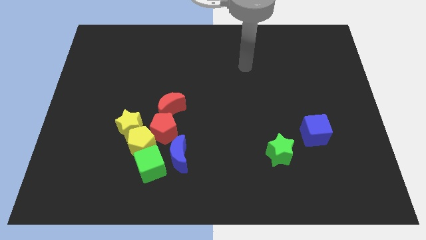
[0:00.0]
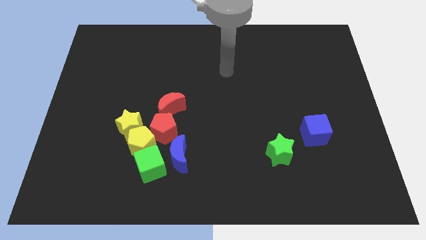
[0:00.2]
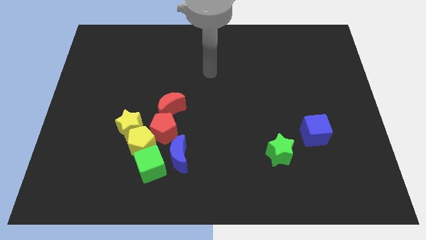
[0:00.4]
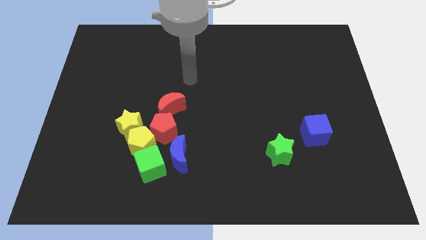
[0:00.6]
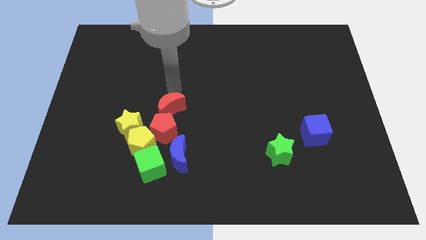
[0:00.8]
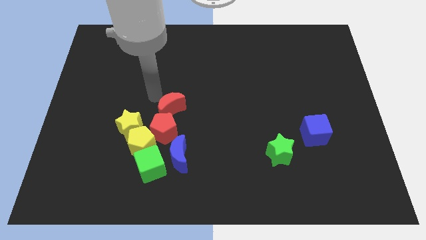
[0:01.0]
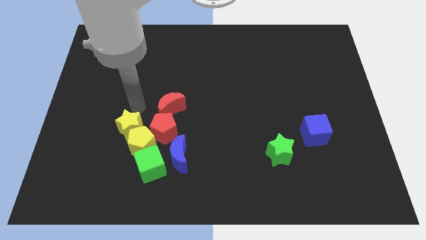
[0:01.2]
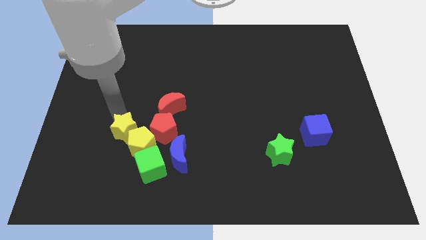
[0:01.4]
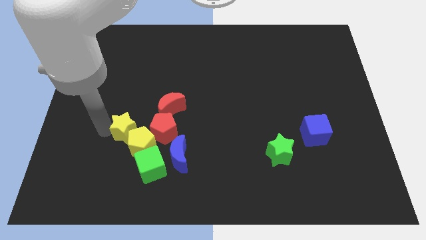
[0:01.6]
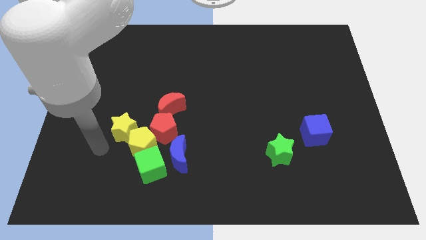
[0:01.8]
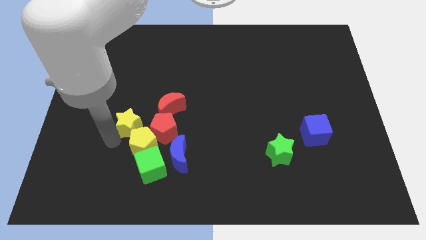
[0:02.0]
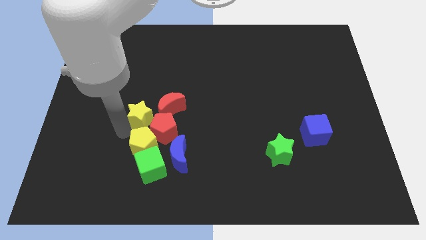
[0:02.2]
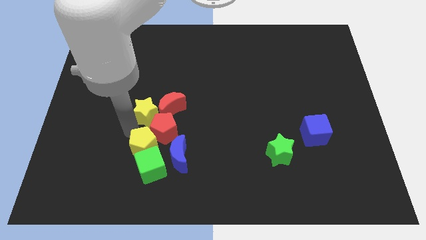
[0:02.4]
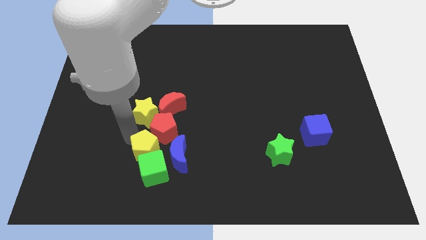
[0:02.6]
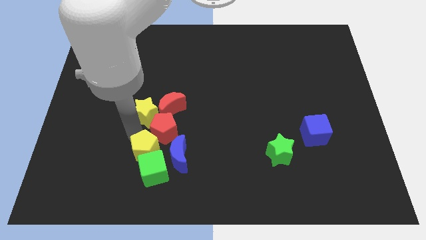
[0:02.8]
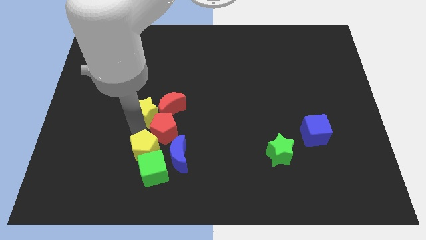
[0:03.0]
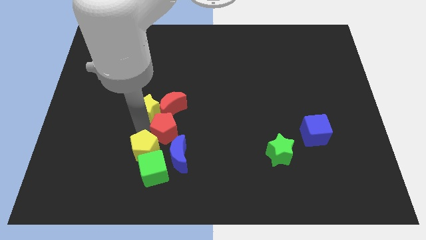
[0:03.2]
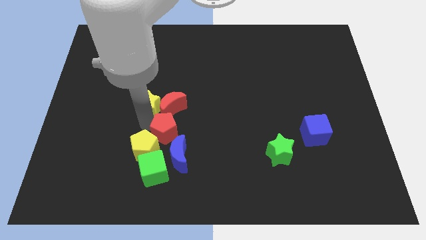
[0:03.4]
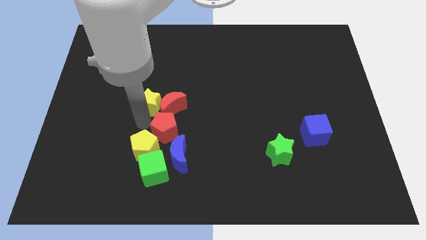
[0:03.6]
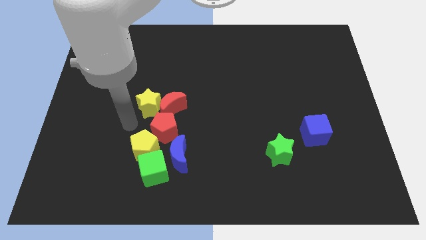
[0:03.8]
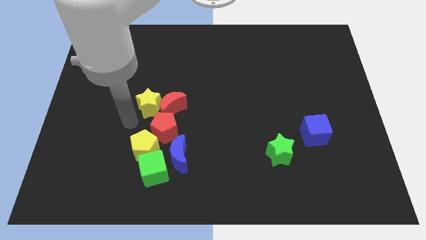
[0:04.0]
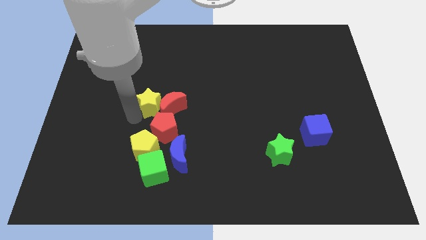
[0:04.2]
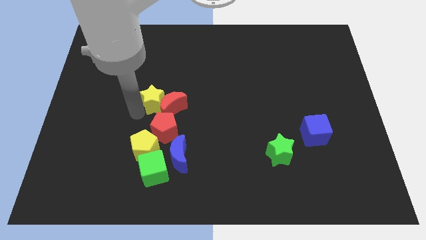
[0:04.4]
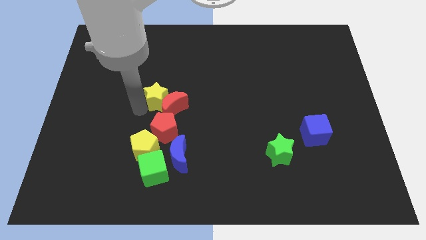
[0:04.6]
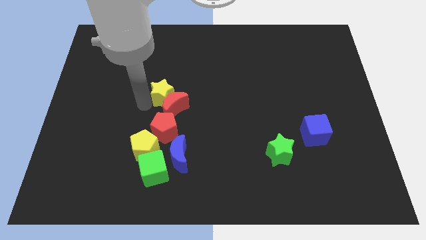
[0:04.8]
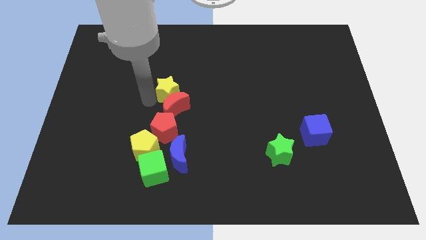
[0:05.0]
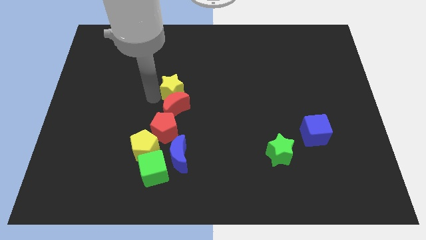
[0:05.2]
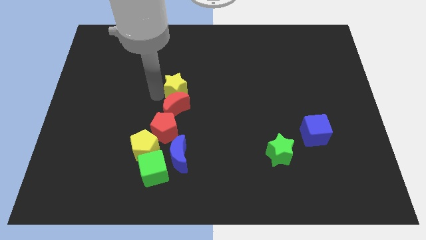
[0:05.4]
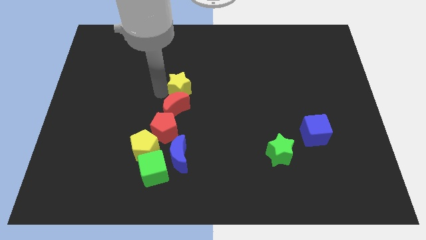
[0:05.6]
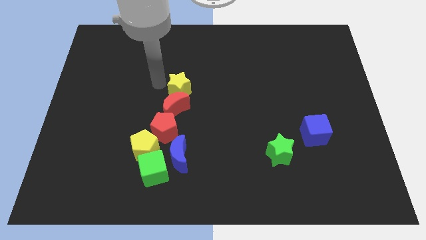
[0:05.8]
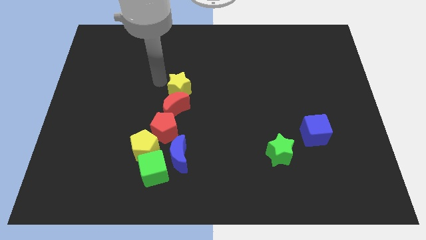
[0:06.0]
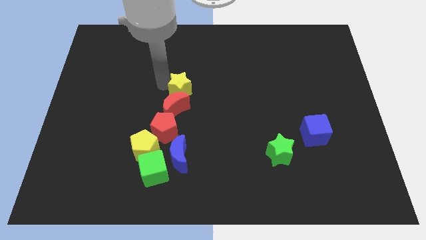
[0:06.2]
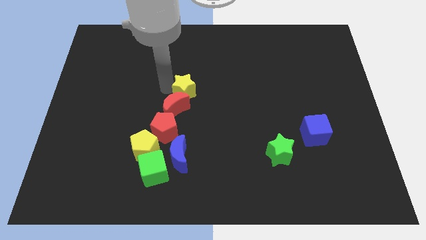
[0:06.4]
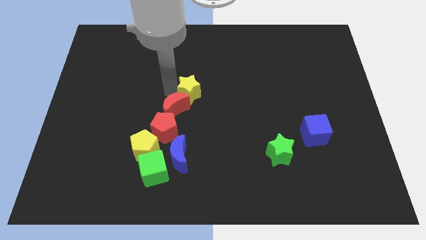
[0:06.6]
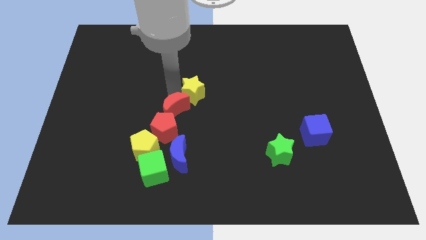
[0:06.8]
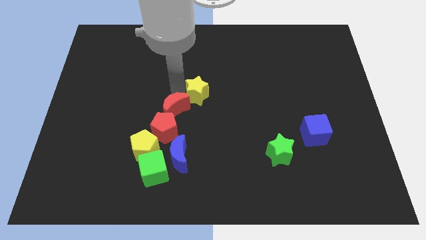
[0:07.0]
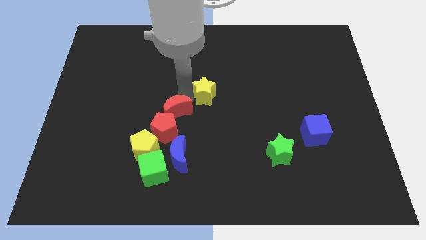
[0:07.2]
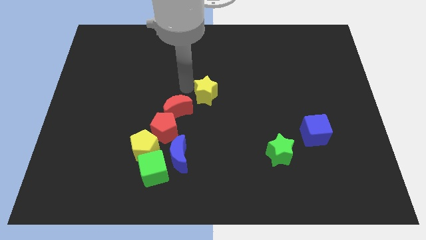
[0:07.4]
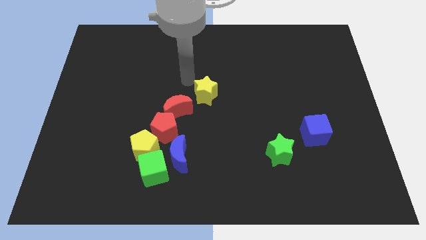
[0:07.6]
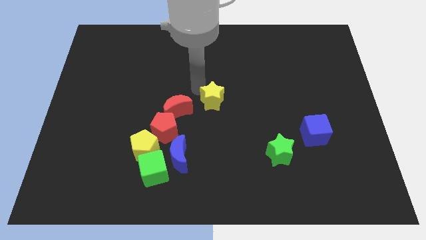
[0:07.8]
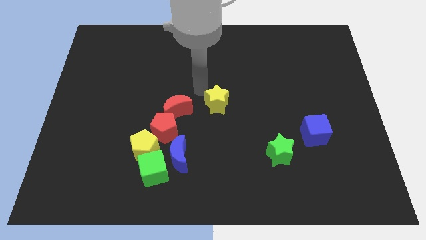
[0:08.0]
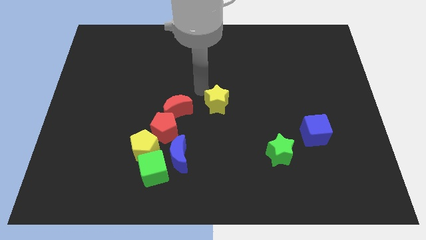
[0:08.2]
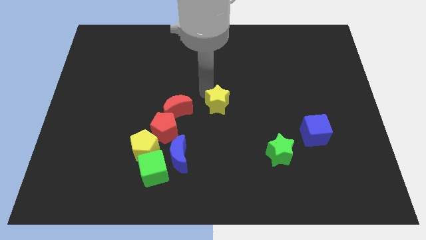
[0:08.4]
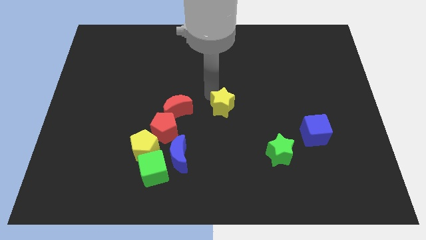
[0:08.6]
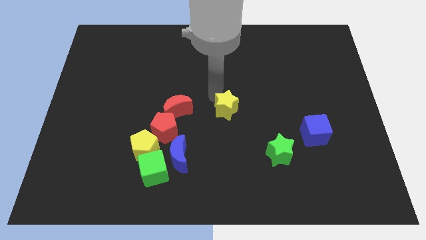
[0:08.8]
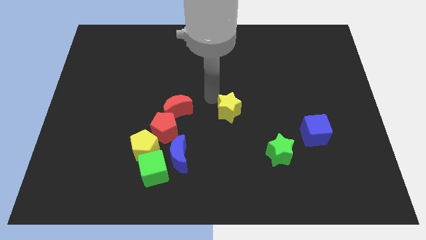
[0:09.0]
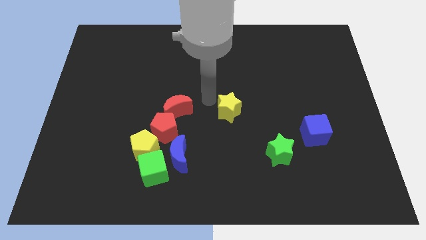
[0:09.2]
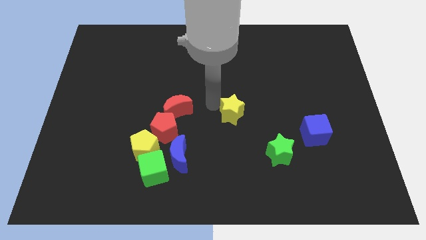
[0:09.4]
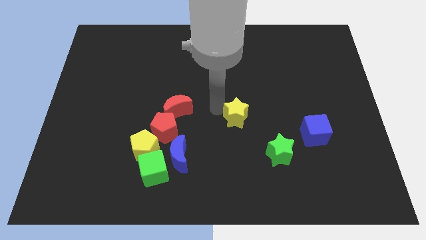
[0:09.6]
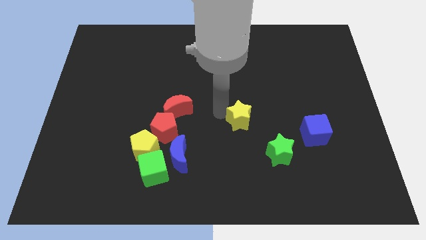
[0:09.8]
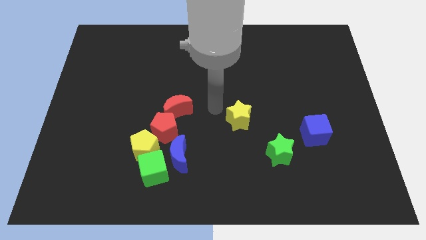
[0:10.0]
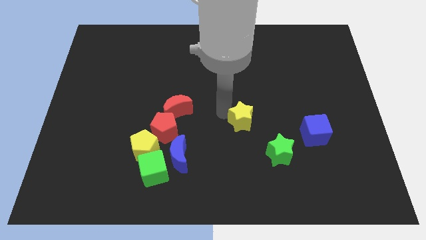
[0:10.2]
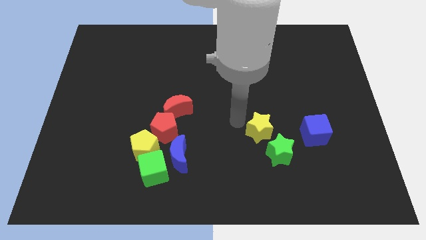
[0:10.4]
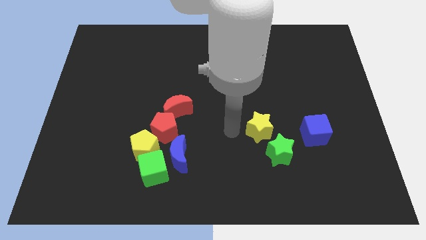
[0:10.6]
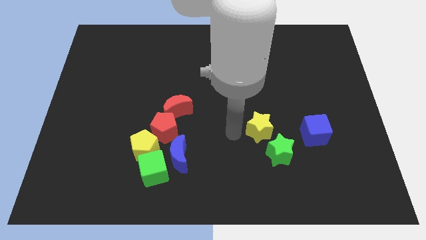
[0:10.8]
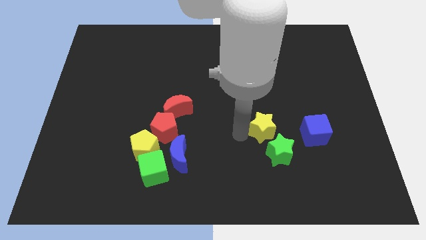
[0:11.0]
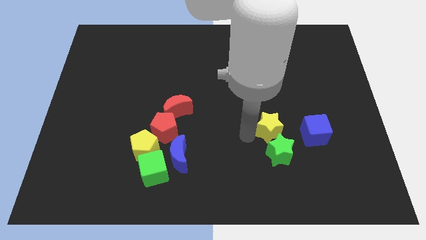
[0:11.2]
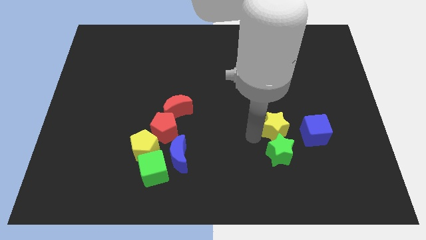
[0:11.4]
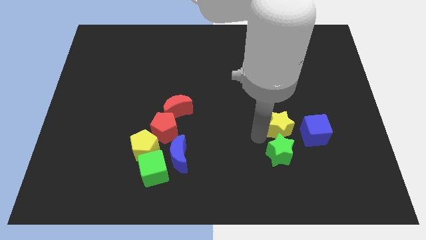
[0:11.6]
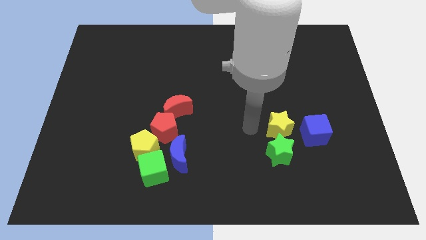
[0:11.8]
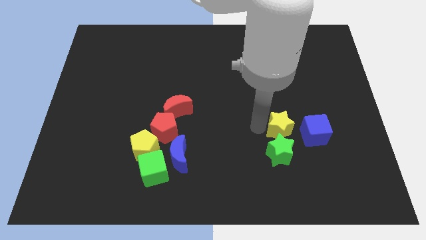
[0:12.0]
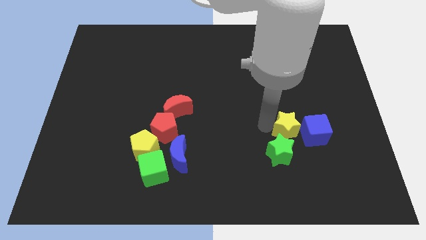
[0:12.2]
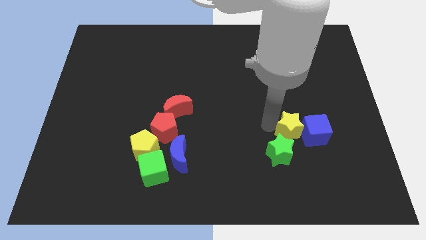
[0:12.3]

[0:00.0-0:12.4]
push the yellow star next to the blue cube

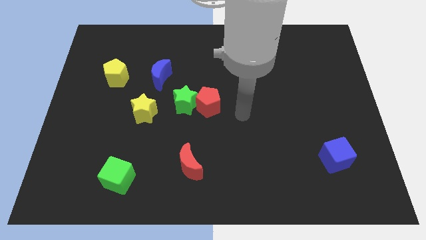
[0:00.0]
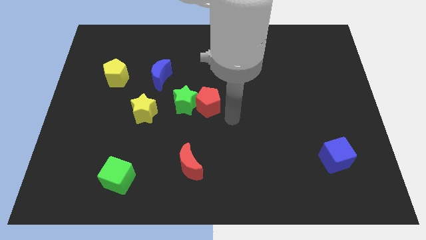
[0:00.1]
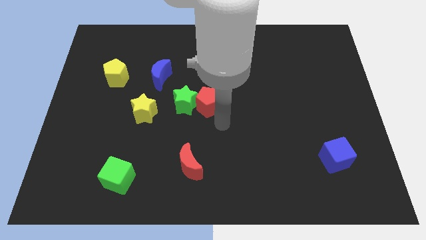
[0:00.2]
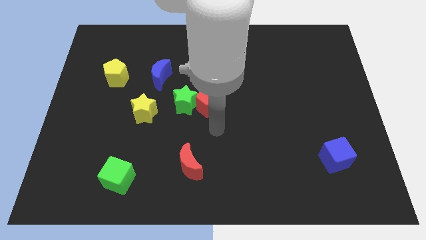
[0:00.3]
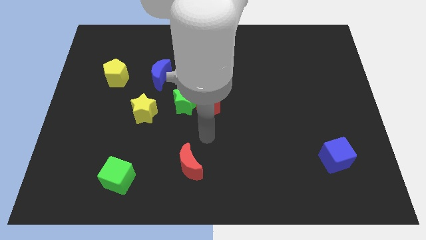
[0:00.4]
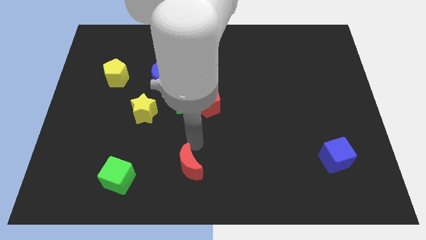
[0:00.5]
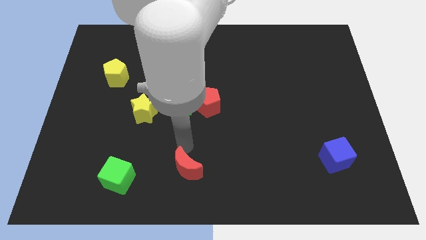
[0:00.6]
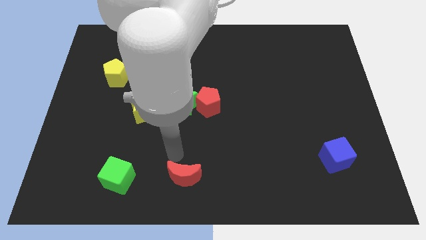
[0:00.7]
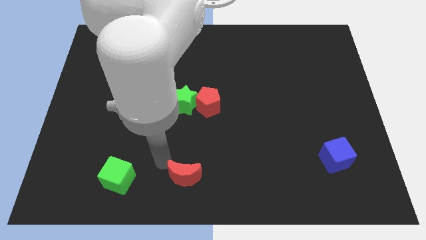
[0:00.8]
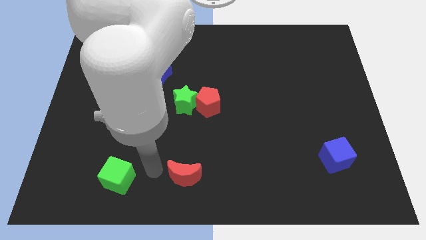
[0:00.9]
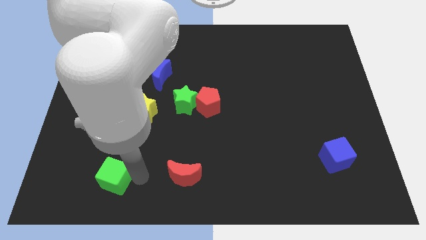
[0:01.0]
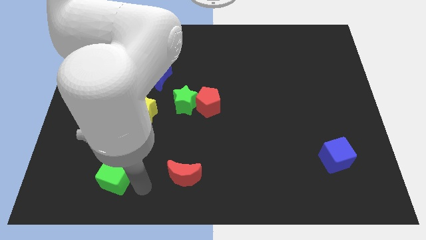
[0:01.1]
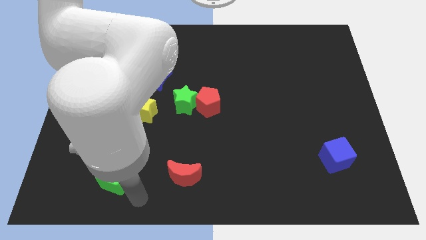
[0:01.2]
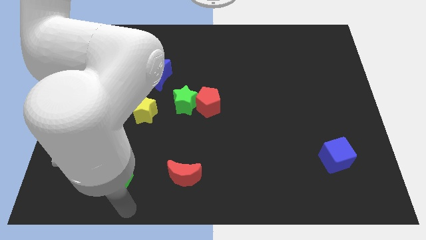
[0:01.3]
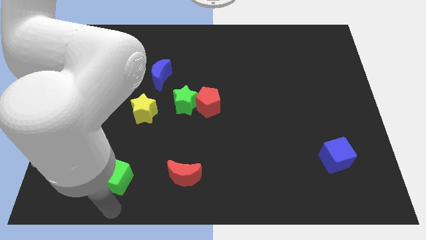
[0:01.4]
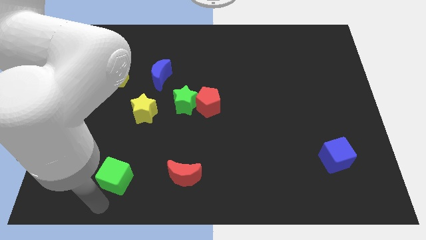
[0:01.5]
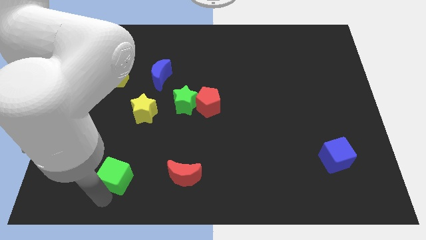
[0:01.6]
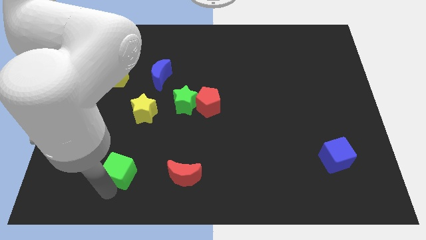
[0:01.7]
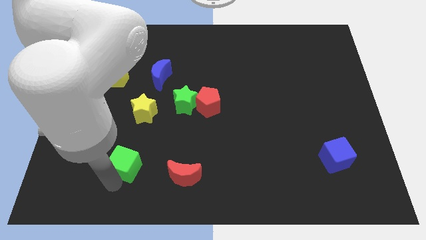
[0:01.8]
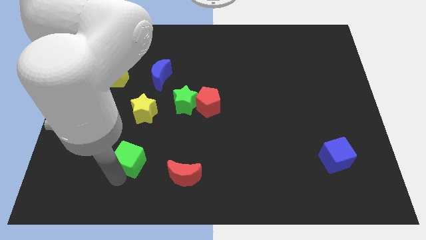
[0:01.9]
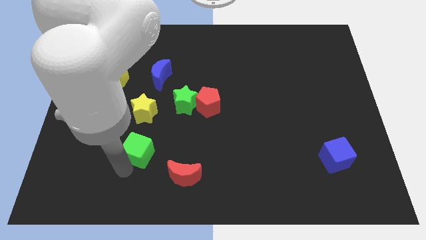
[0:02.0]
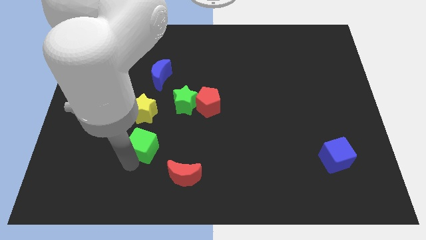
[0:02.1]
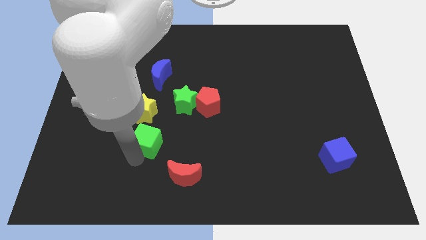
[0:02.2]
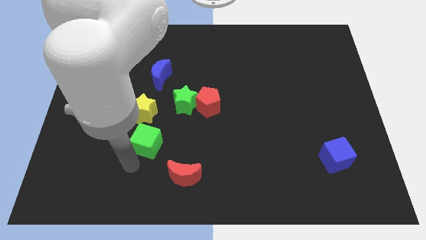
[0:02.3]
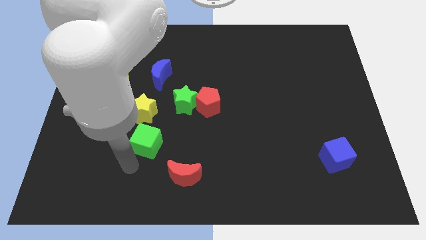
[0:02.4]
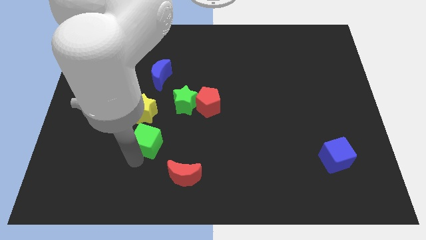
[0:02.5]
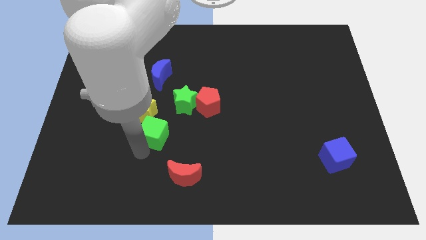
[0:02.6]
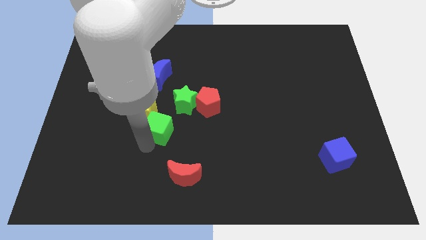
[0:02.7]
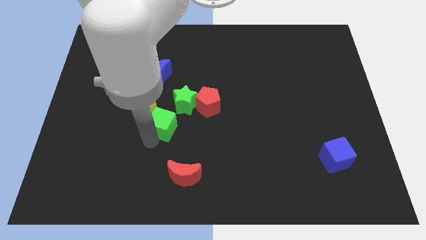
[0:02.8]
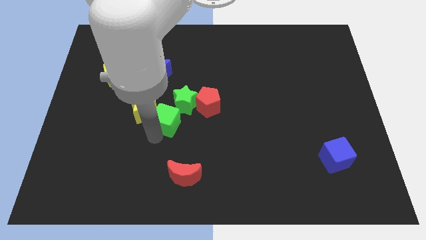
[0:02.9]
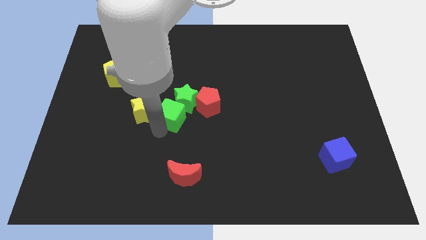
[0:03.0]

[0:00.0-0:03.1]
put the green cube towards the green star
